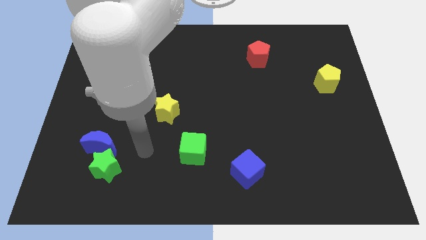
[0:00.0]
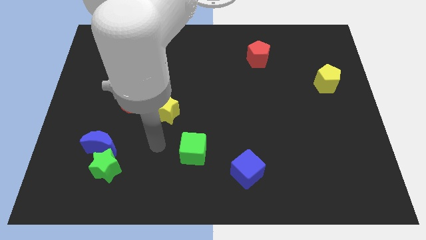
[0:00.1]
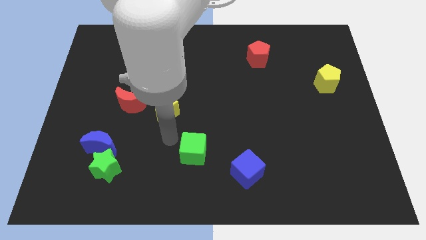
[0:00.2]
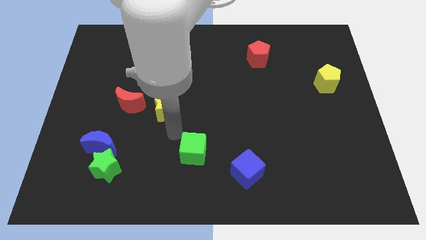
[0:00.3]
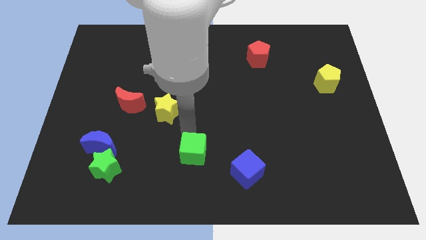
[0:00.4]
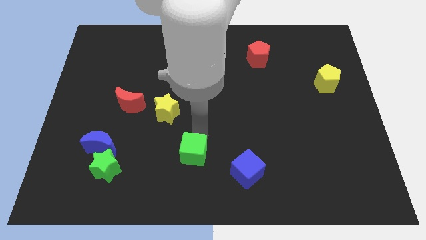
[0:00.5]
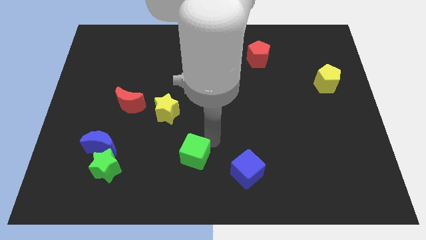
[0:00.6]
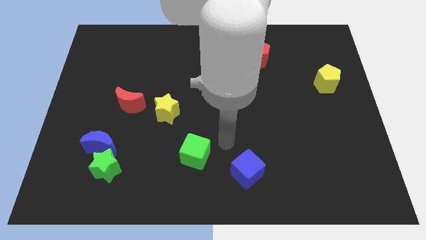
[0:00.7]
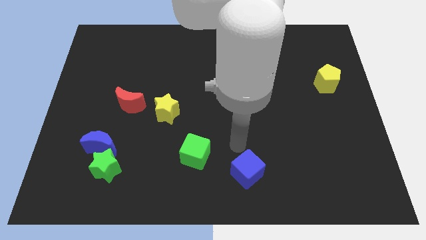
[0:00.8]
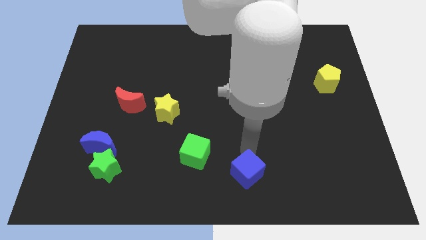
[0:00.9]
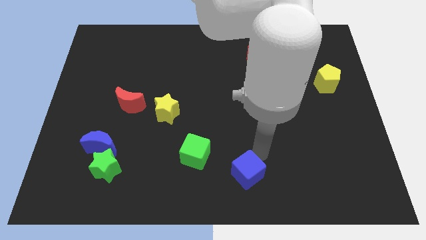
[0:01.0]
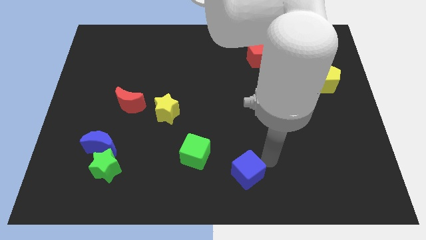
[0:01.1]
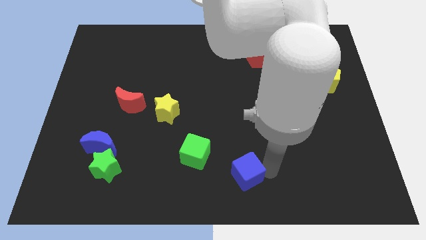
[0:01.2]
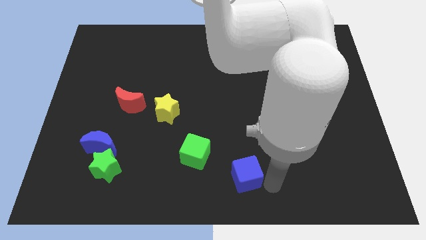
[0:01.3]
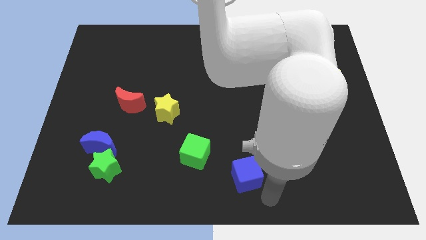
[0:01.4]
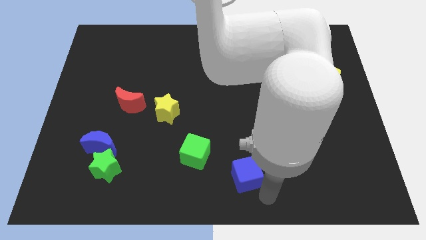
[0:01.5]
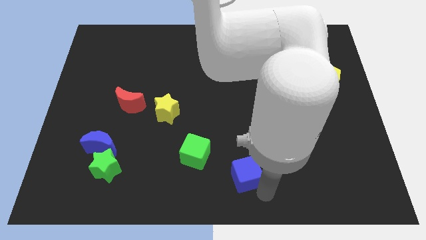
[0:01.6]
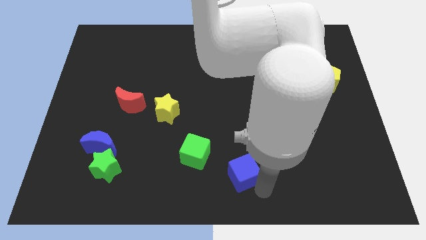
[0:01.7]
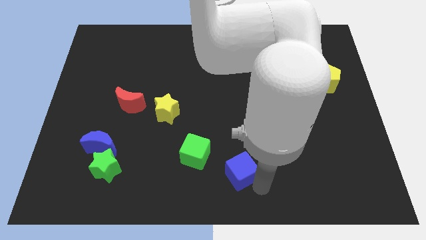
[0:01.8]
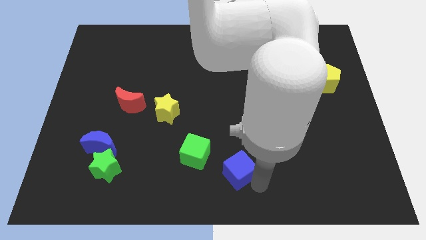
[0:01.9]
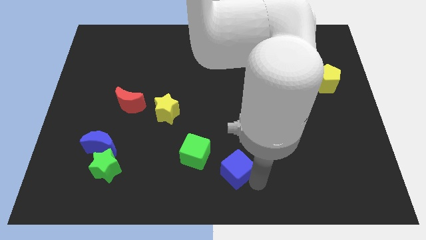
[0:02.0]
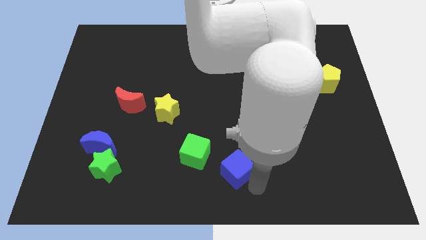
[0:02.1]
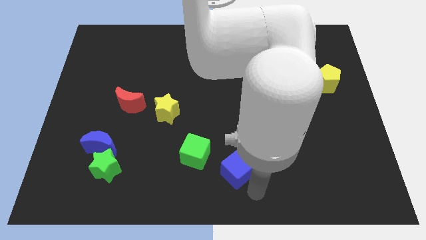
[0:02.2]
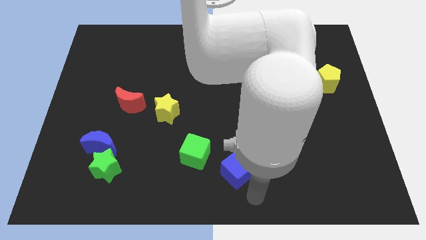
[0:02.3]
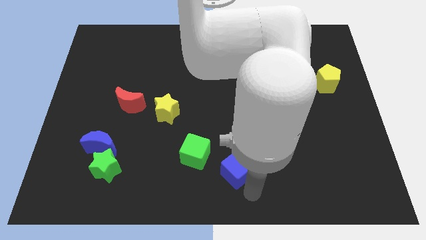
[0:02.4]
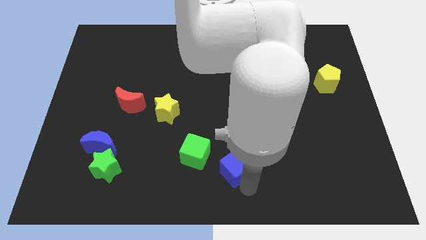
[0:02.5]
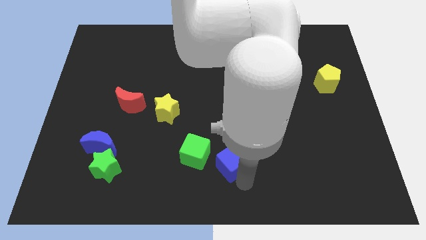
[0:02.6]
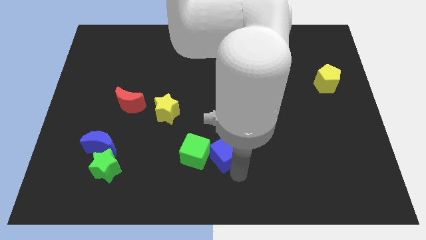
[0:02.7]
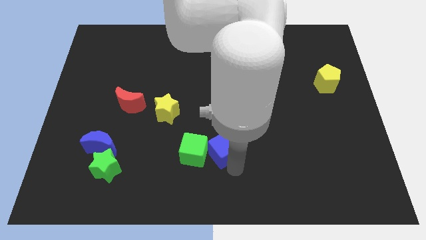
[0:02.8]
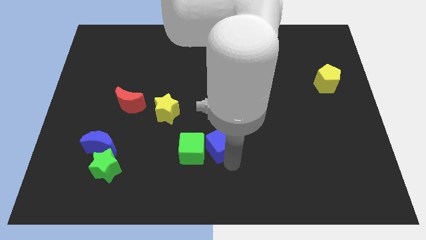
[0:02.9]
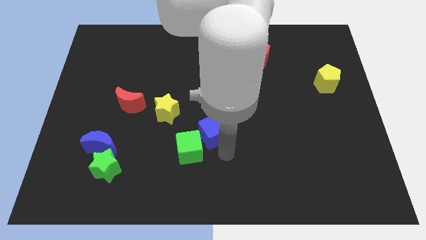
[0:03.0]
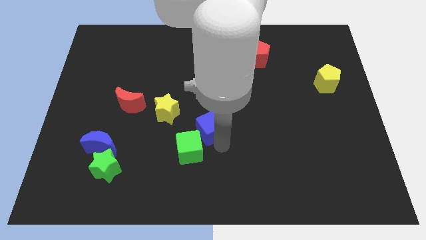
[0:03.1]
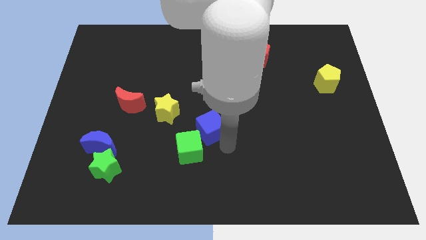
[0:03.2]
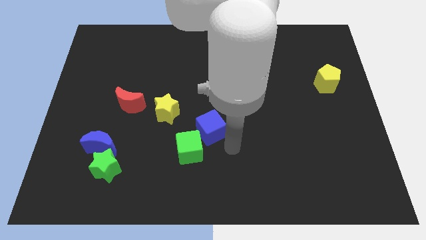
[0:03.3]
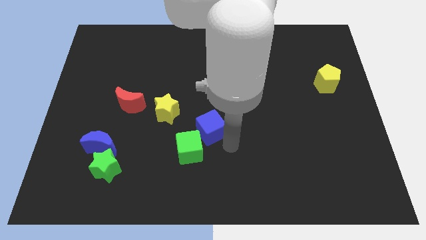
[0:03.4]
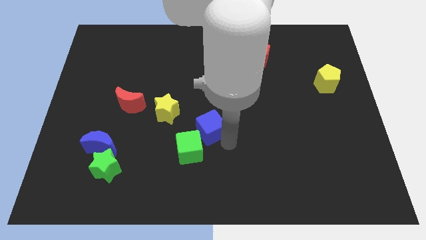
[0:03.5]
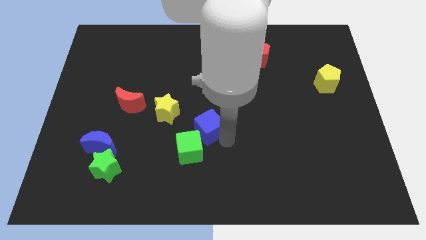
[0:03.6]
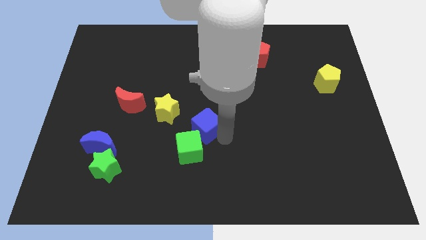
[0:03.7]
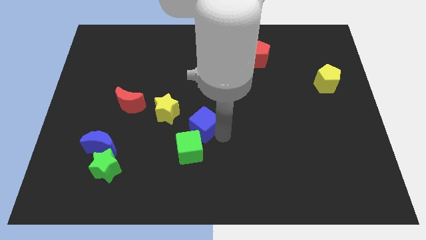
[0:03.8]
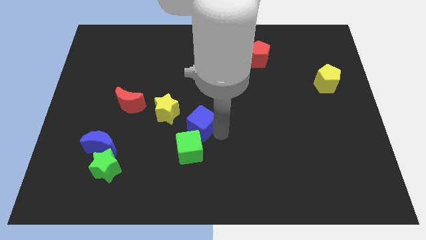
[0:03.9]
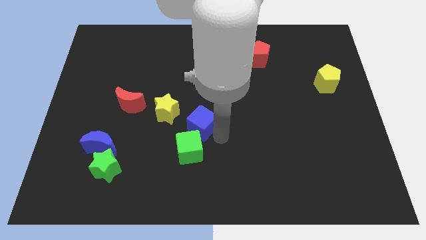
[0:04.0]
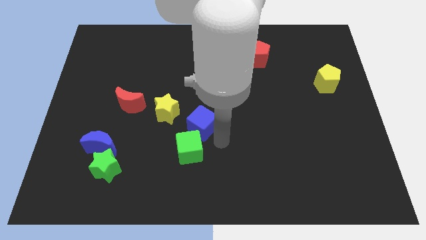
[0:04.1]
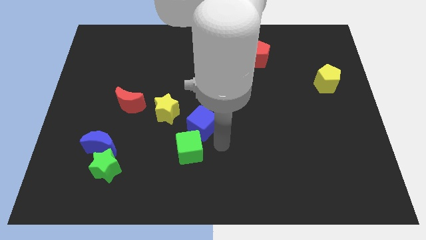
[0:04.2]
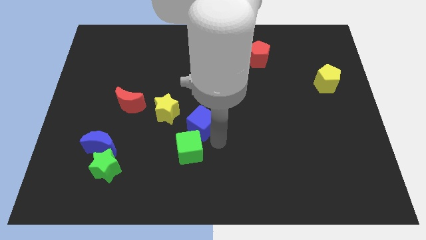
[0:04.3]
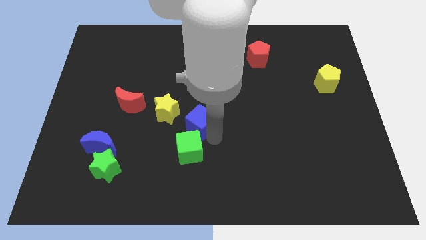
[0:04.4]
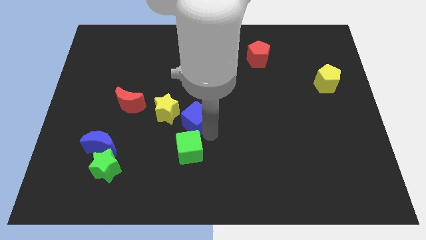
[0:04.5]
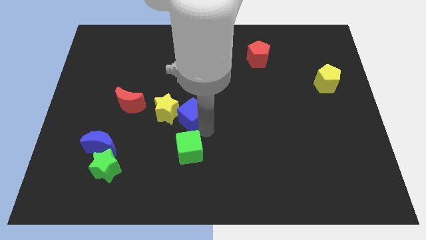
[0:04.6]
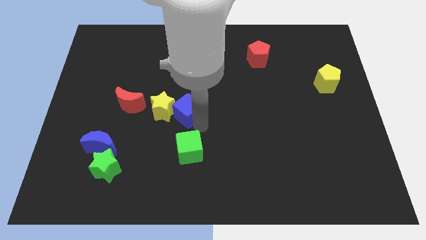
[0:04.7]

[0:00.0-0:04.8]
slide the blue cube up and then left

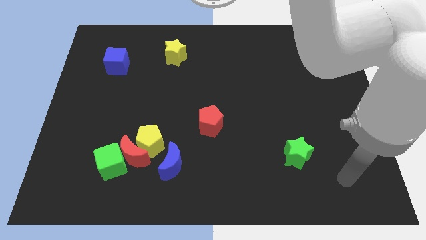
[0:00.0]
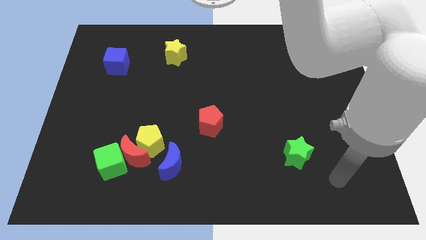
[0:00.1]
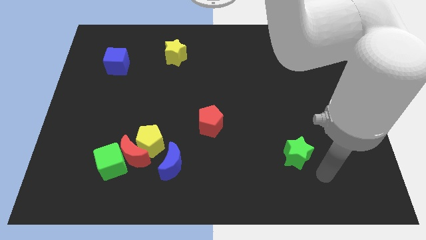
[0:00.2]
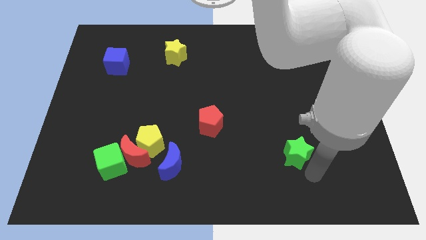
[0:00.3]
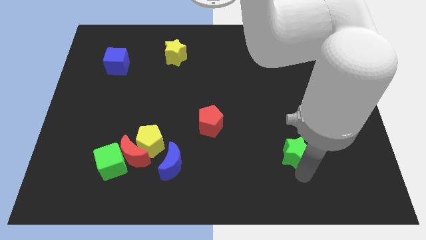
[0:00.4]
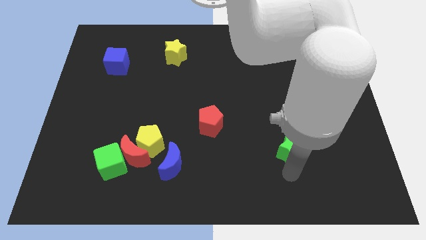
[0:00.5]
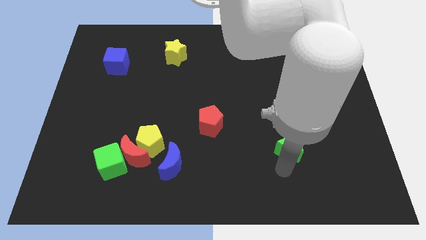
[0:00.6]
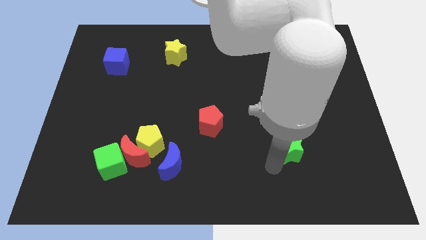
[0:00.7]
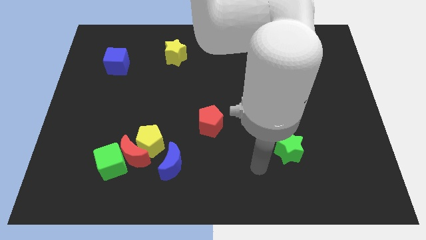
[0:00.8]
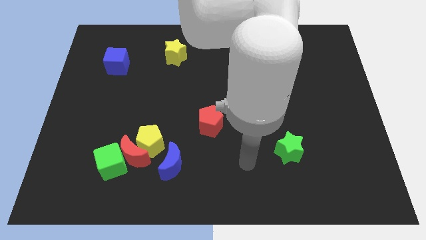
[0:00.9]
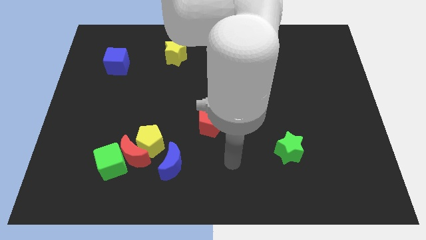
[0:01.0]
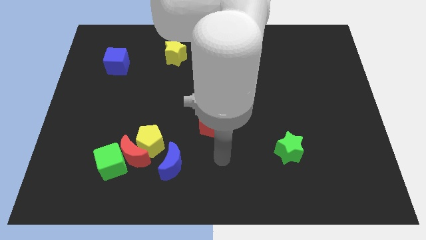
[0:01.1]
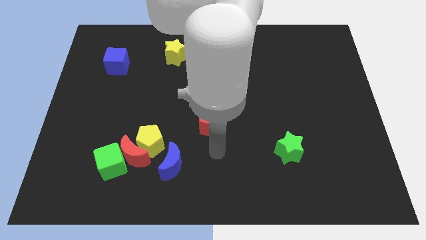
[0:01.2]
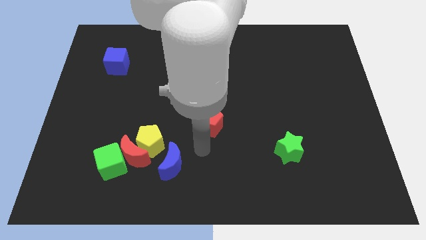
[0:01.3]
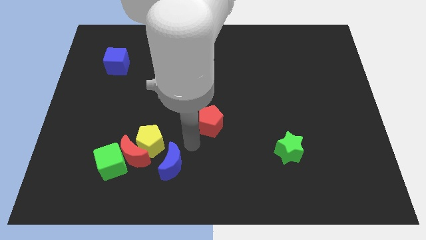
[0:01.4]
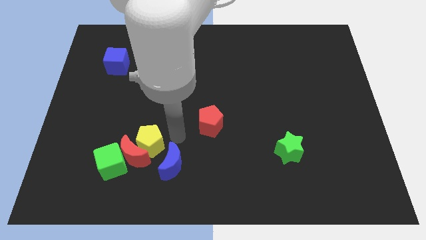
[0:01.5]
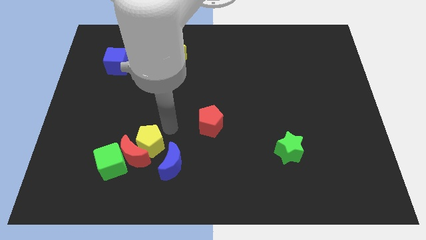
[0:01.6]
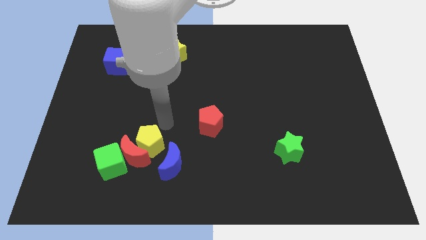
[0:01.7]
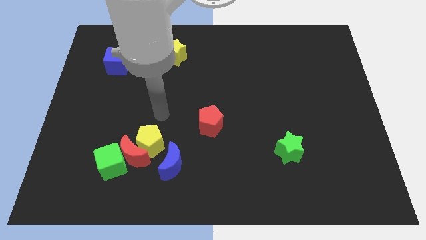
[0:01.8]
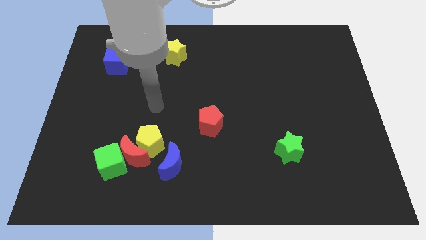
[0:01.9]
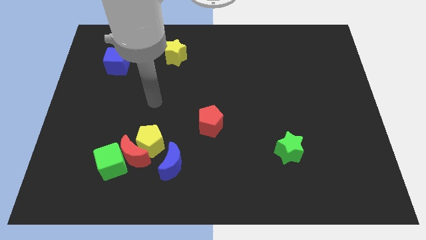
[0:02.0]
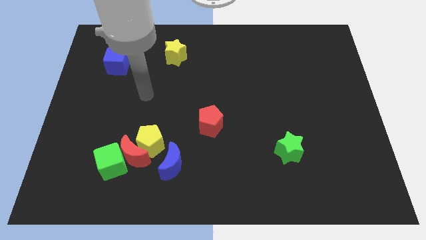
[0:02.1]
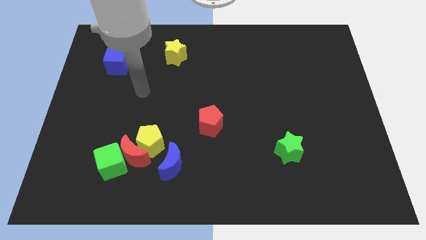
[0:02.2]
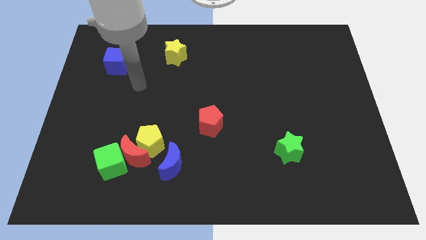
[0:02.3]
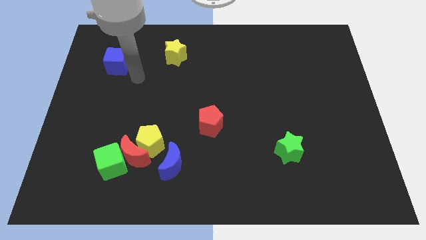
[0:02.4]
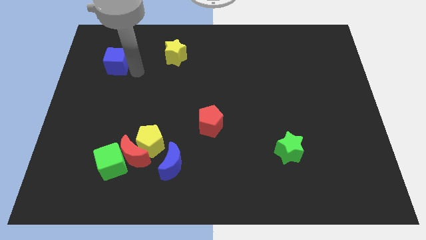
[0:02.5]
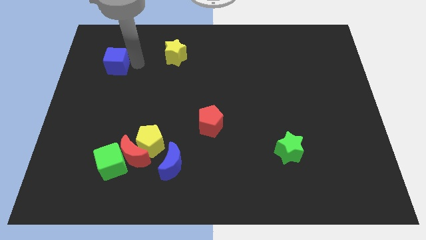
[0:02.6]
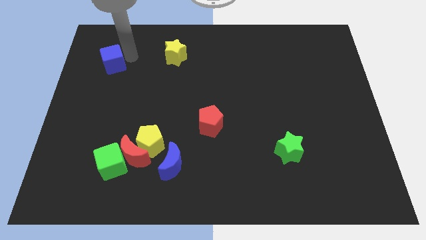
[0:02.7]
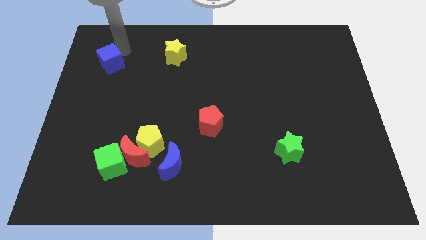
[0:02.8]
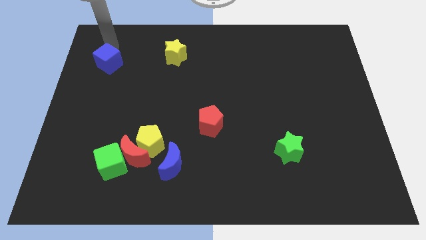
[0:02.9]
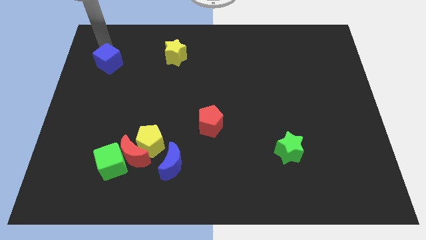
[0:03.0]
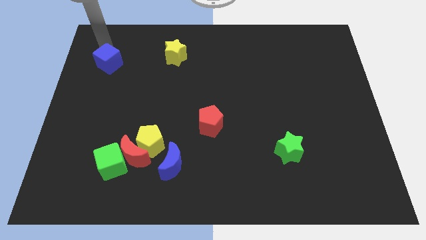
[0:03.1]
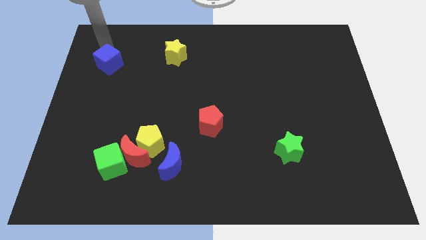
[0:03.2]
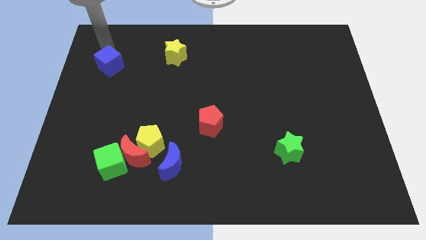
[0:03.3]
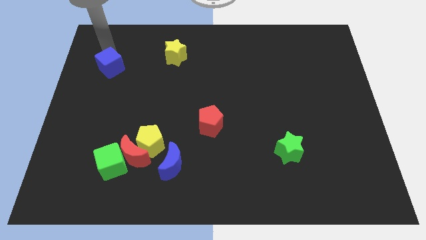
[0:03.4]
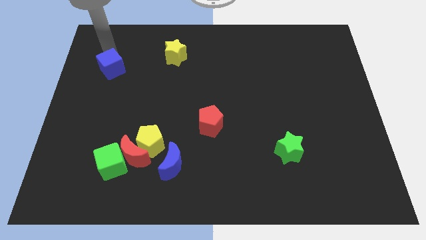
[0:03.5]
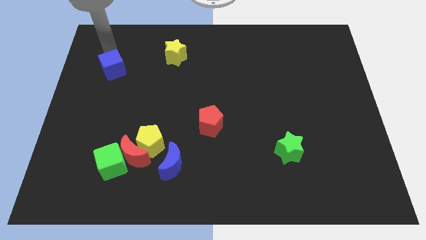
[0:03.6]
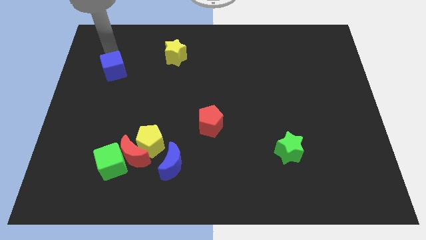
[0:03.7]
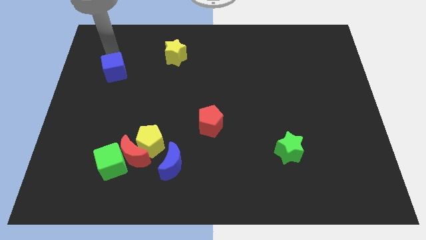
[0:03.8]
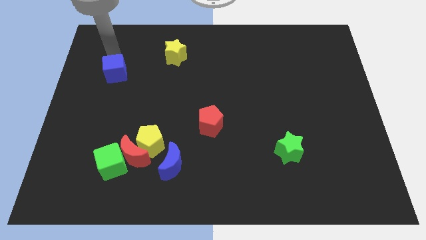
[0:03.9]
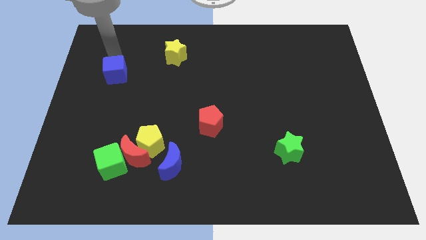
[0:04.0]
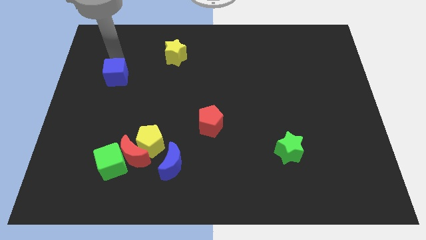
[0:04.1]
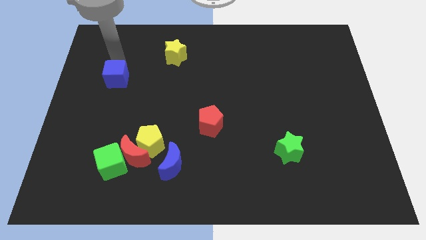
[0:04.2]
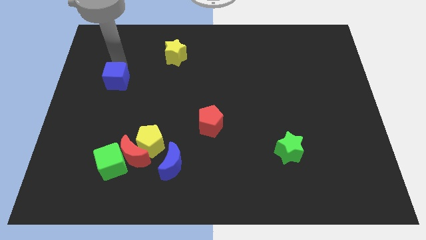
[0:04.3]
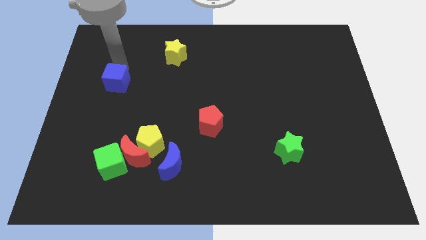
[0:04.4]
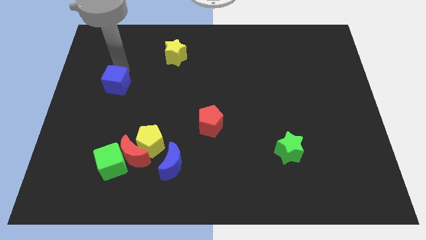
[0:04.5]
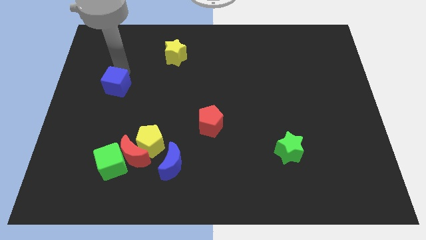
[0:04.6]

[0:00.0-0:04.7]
push the blue cube down slightly
